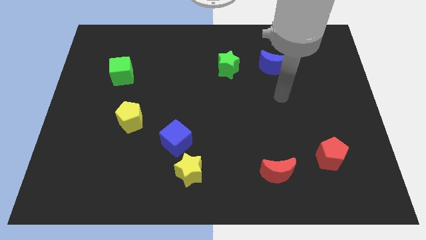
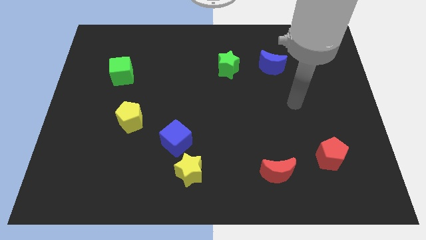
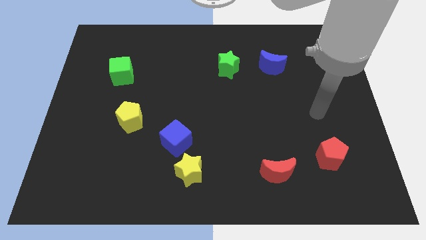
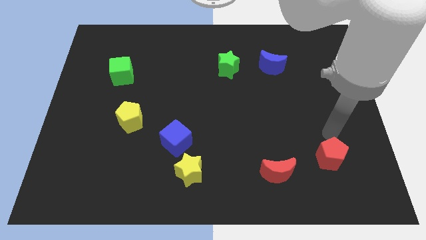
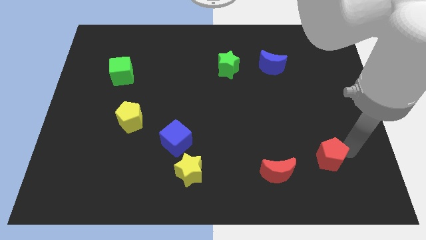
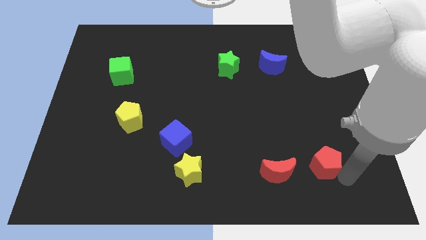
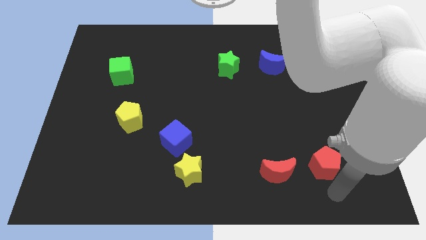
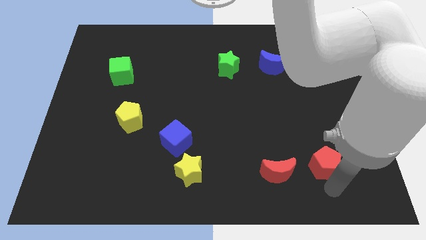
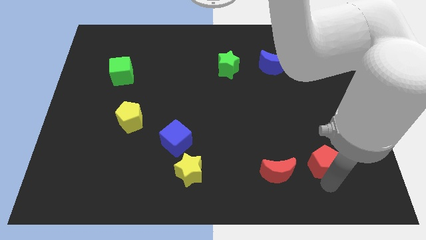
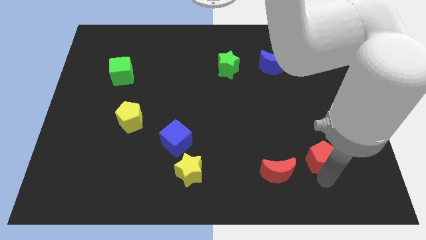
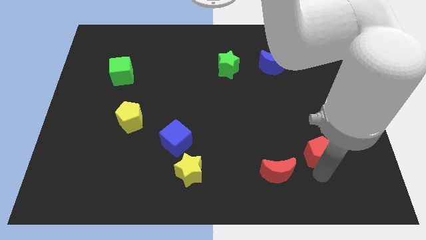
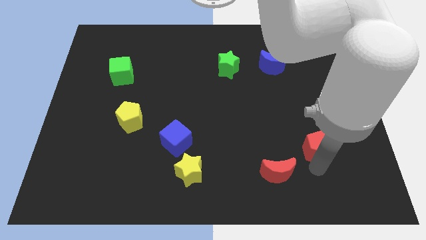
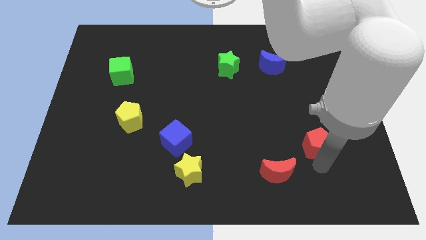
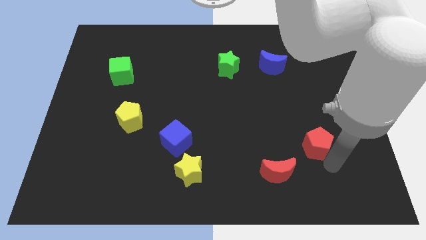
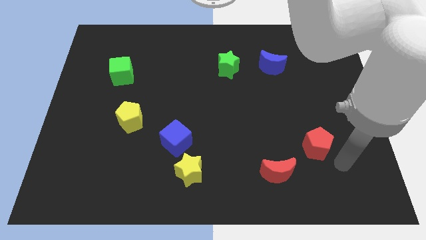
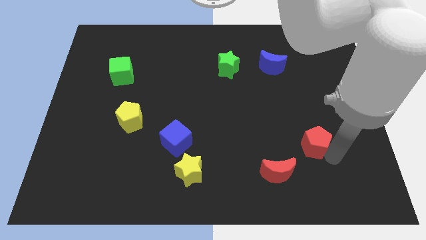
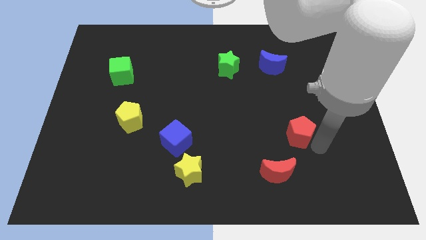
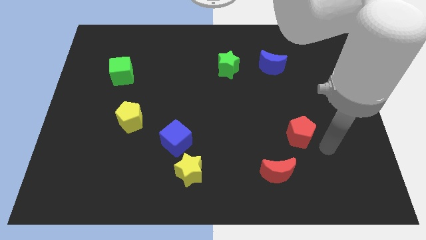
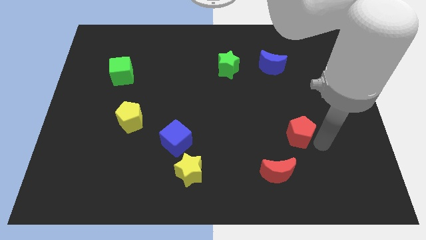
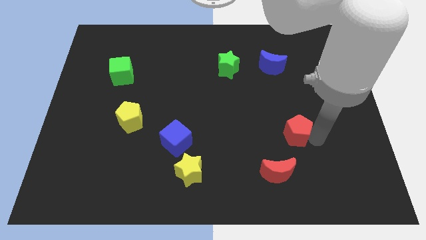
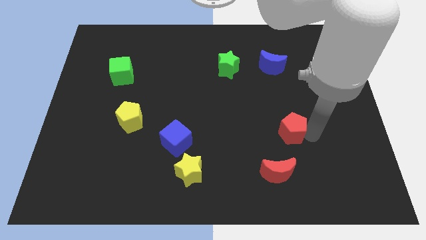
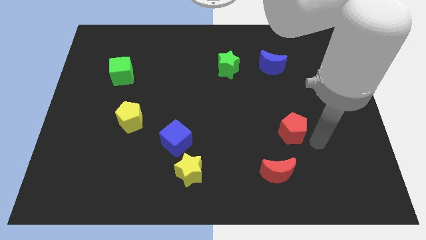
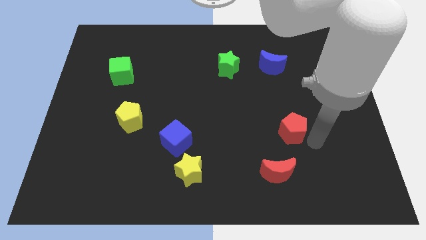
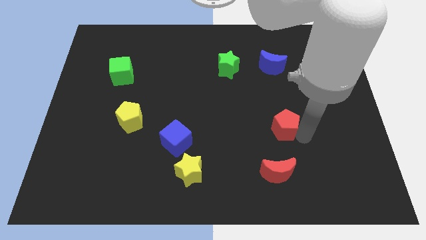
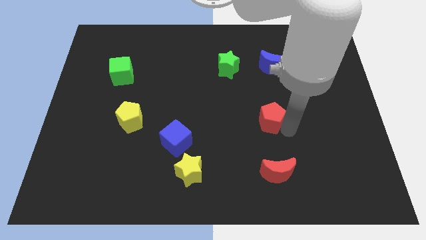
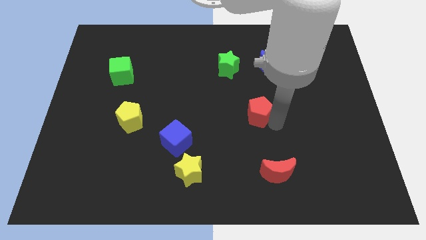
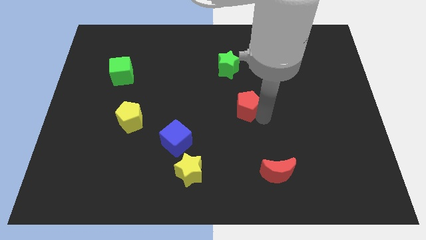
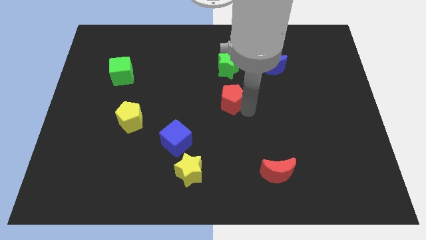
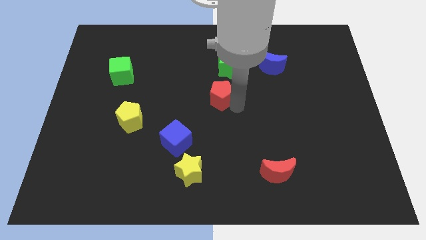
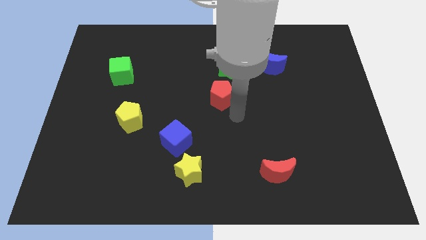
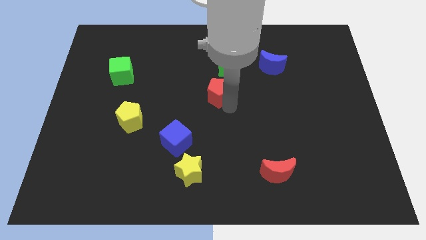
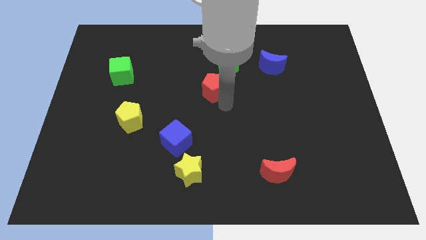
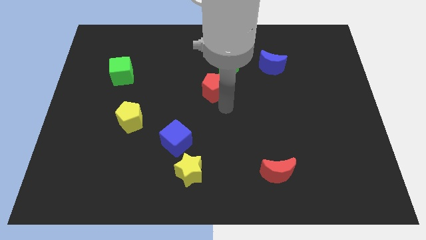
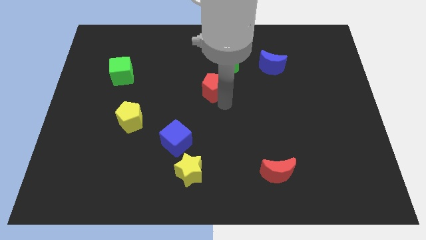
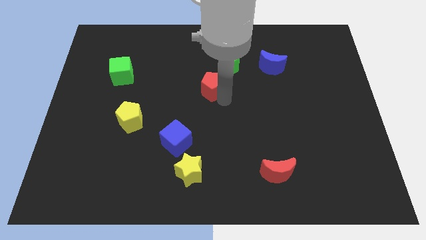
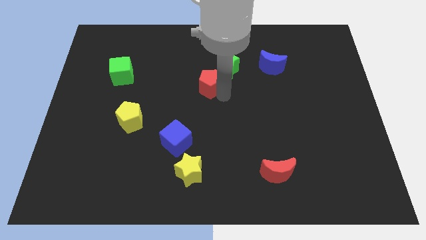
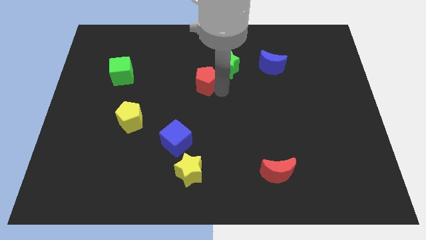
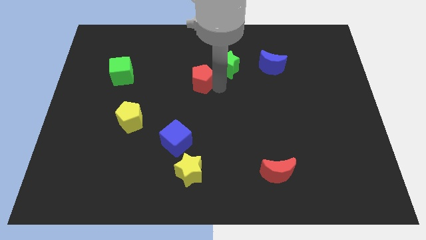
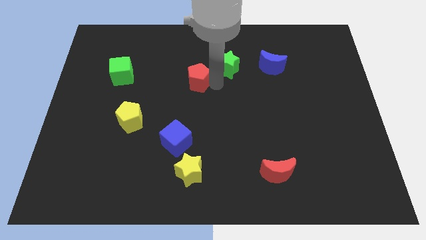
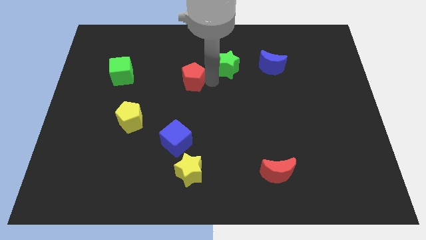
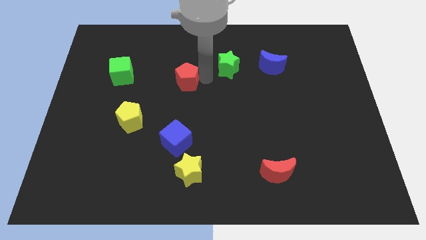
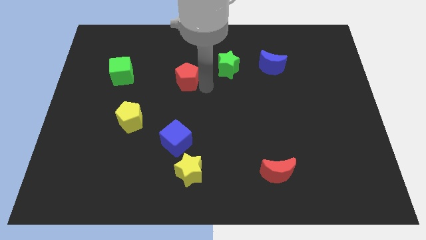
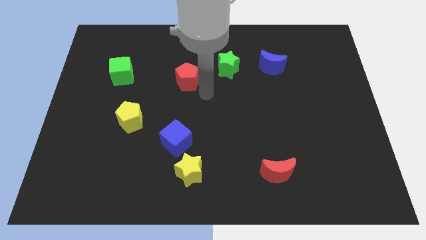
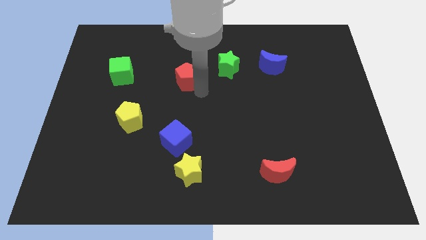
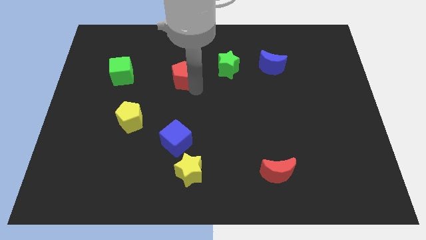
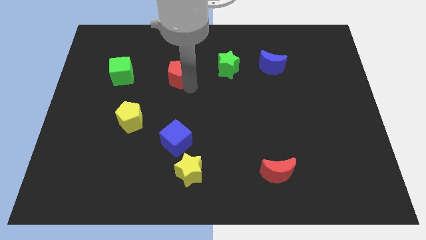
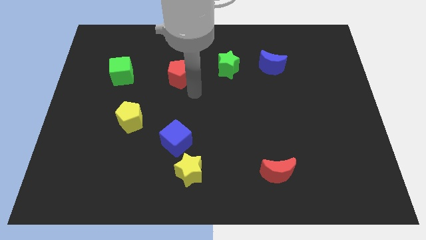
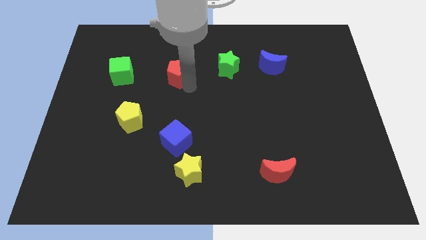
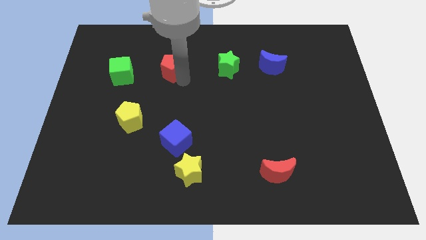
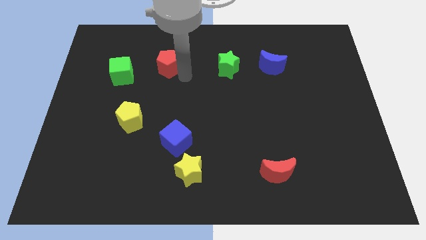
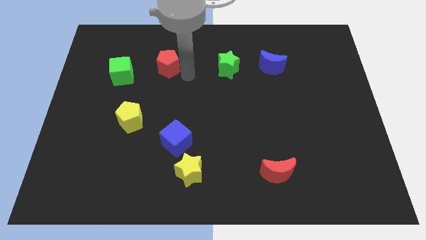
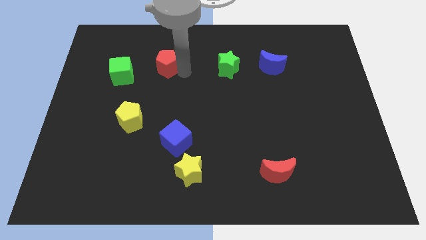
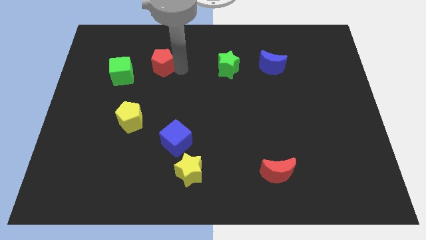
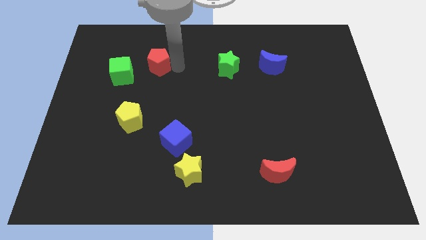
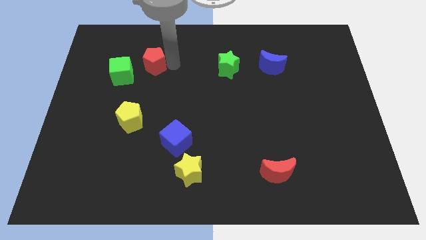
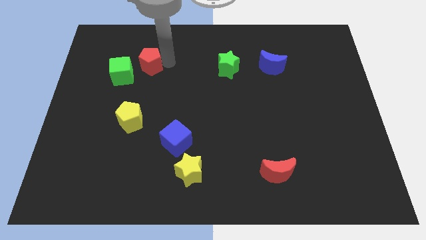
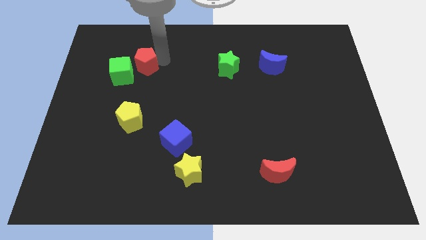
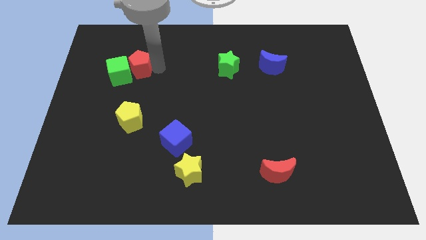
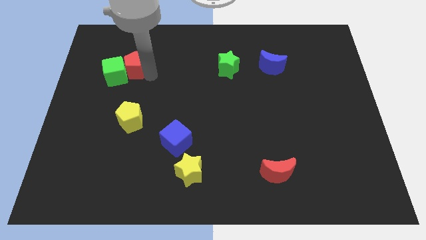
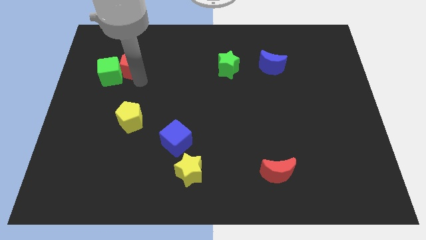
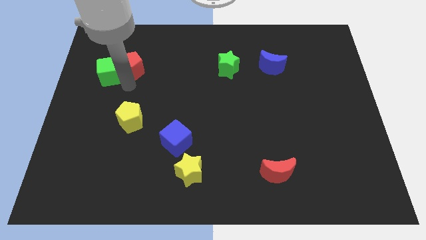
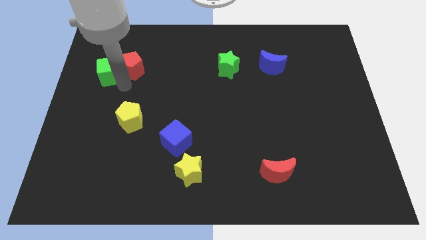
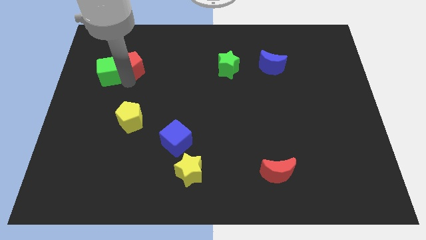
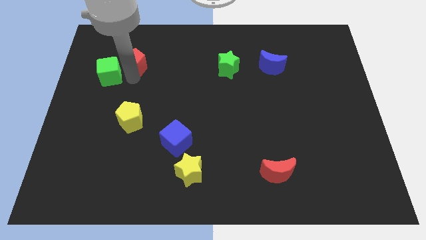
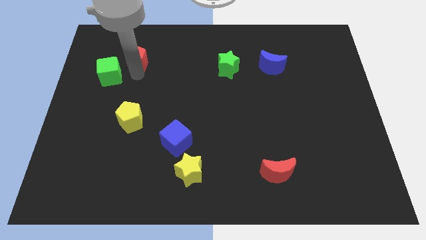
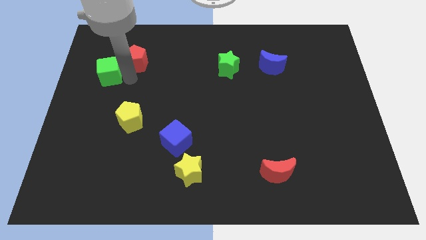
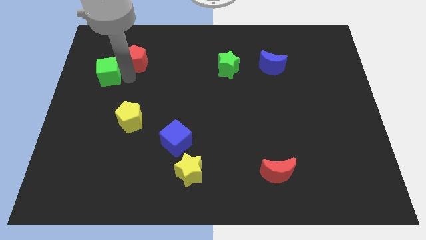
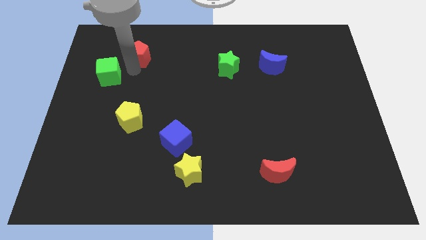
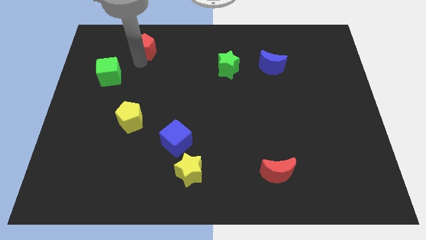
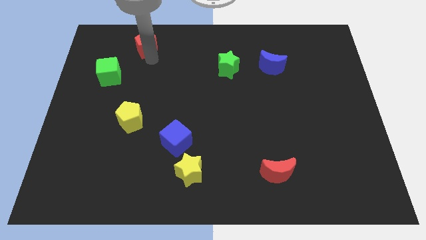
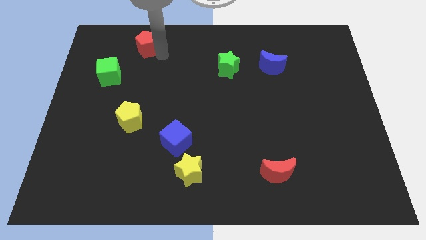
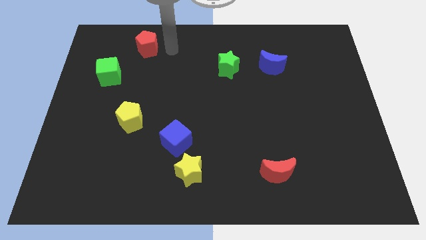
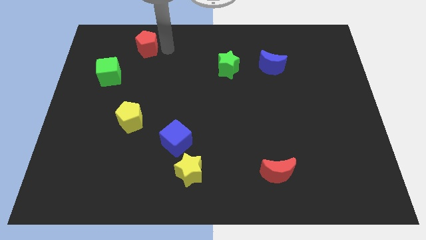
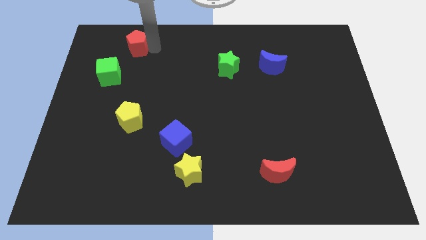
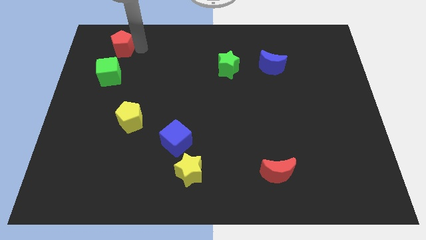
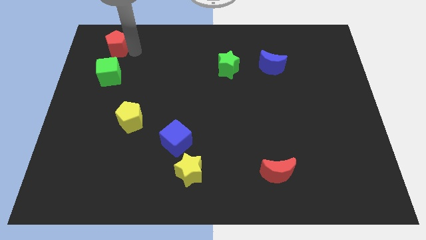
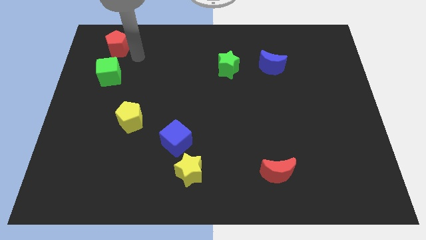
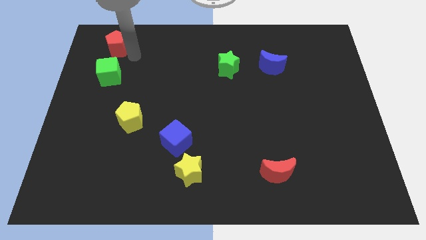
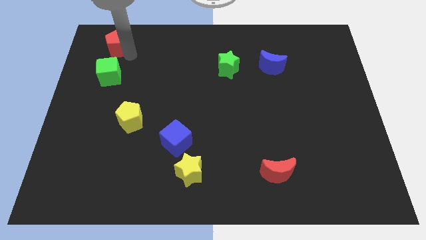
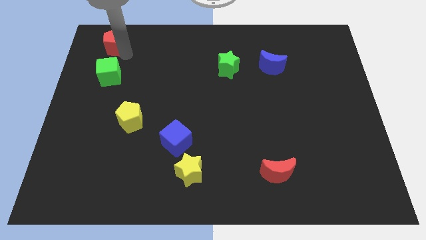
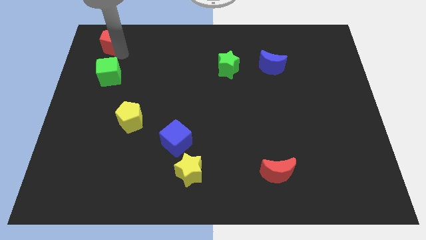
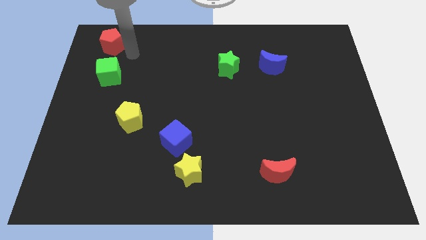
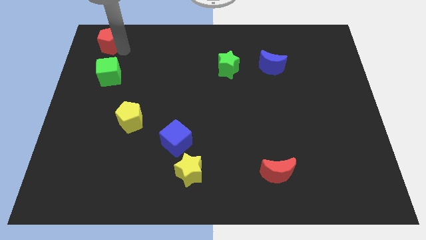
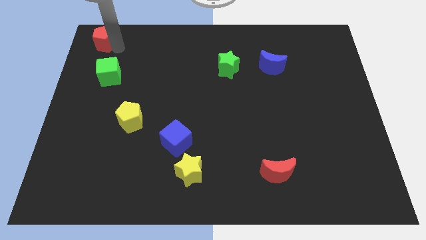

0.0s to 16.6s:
push the red pentagon to the top left of the board
